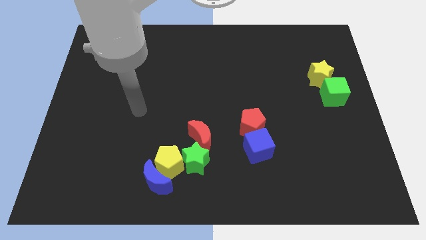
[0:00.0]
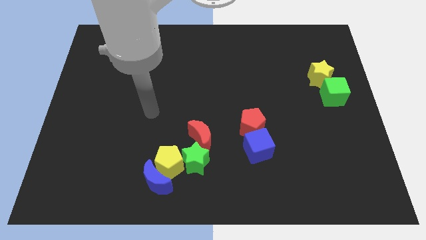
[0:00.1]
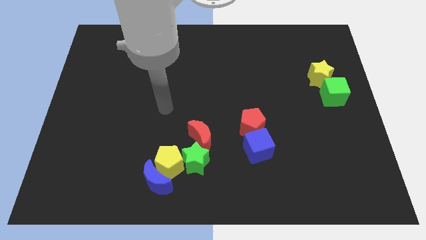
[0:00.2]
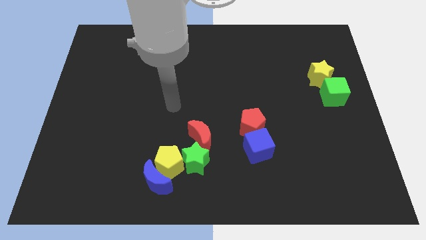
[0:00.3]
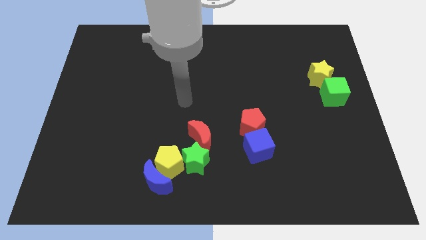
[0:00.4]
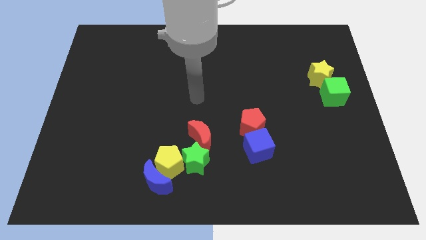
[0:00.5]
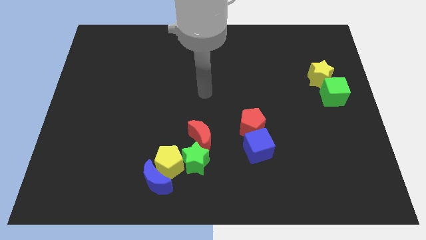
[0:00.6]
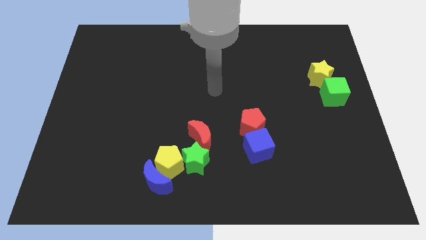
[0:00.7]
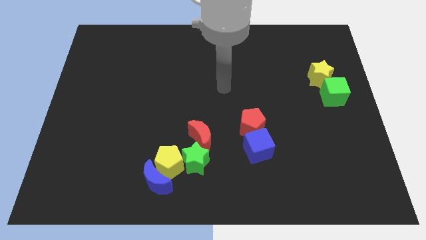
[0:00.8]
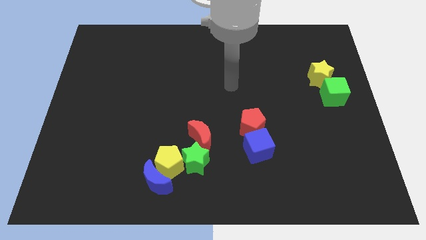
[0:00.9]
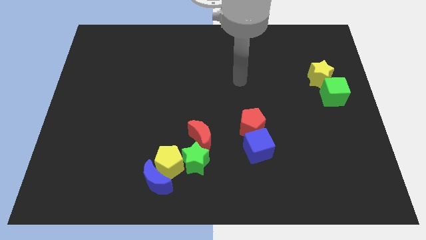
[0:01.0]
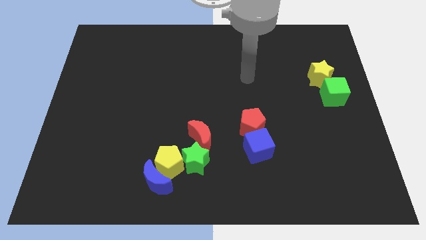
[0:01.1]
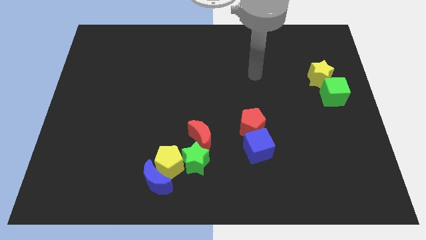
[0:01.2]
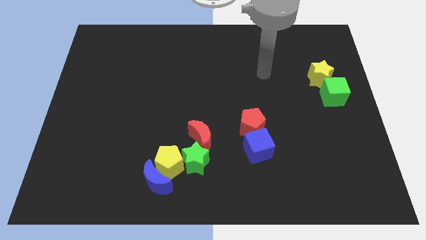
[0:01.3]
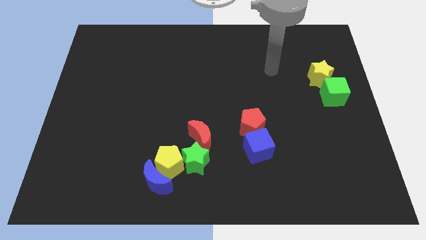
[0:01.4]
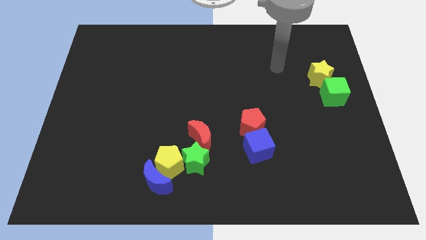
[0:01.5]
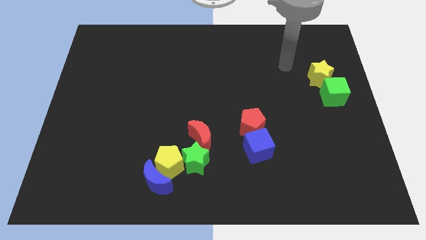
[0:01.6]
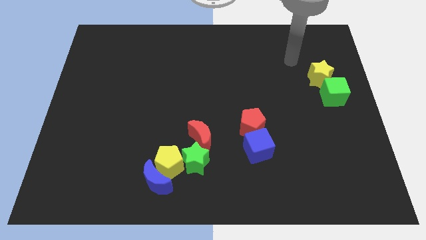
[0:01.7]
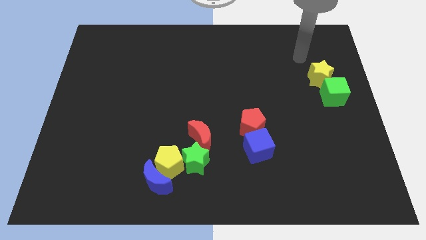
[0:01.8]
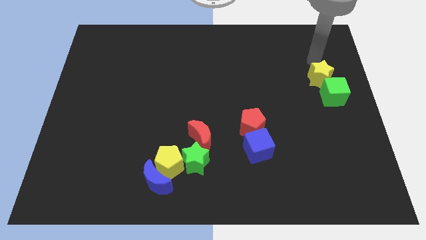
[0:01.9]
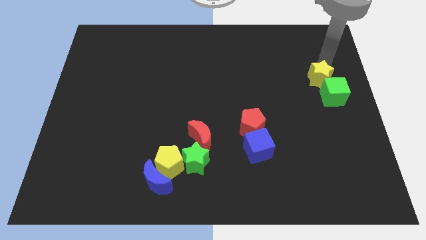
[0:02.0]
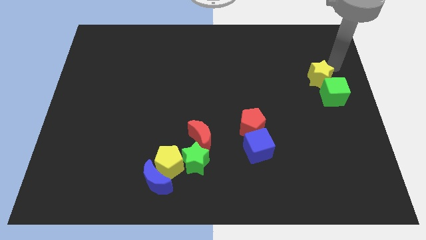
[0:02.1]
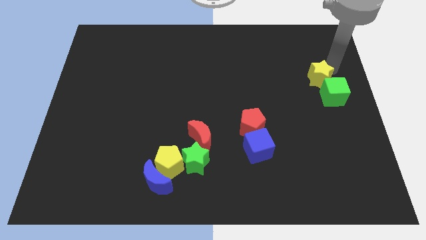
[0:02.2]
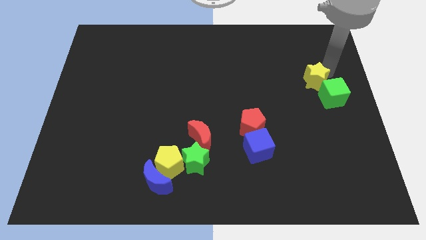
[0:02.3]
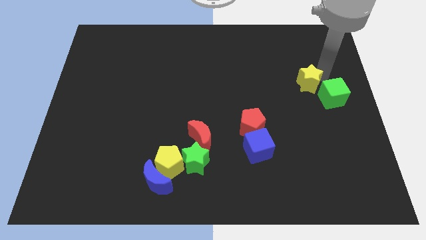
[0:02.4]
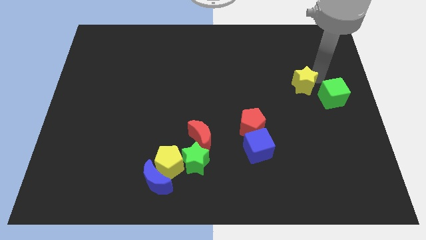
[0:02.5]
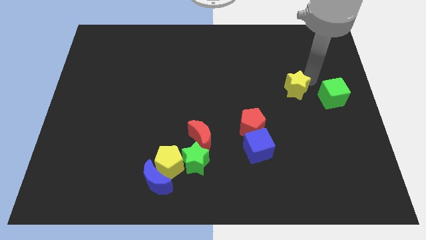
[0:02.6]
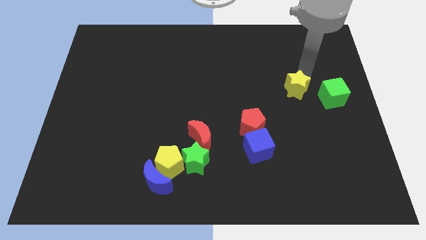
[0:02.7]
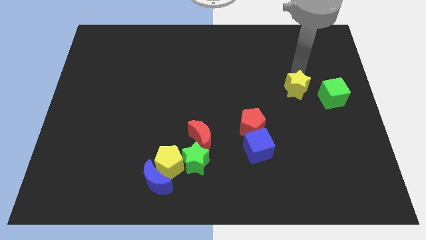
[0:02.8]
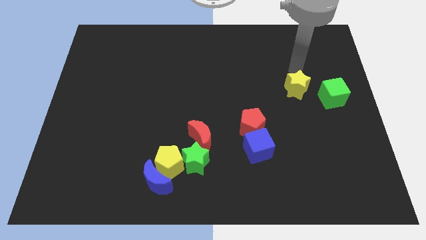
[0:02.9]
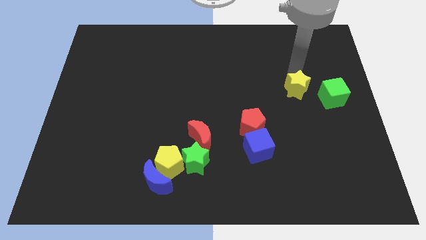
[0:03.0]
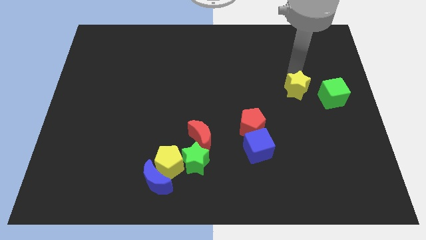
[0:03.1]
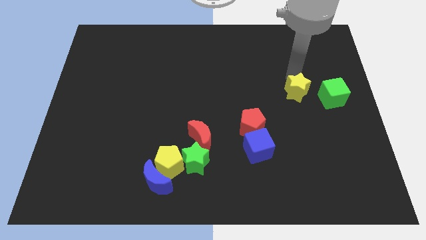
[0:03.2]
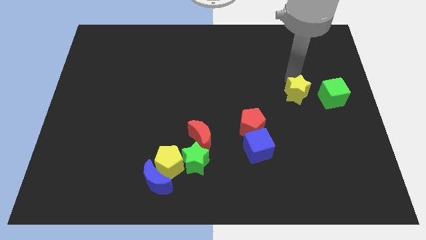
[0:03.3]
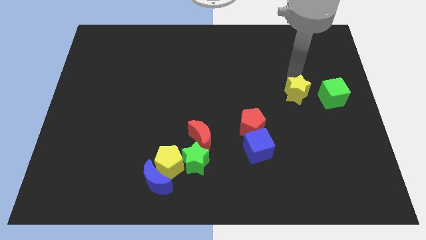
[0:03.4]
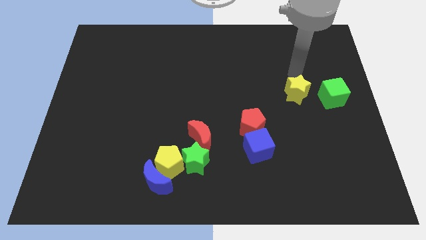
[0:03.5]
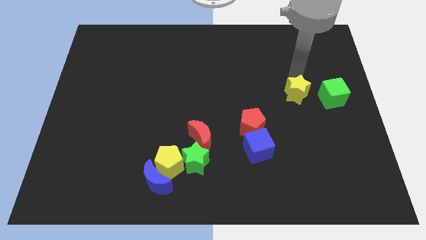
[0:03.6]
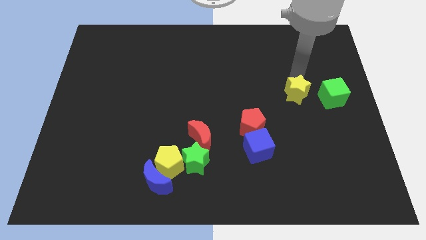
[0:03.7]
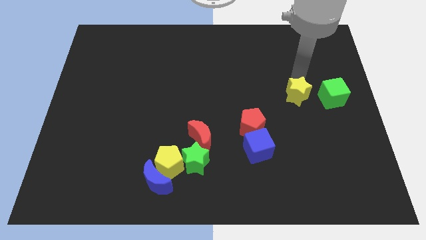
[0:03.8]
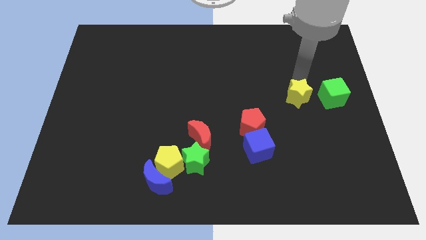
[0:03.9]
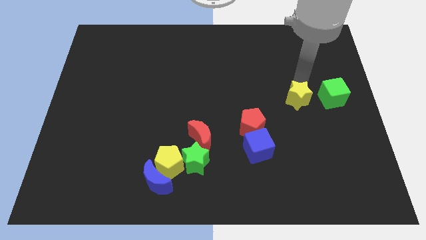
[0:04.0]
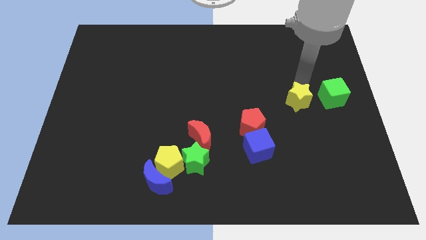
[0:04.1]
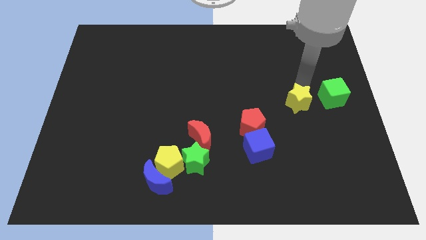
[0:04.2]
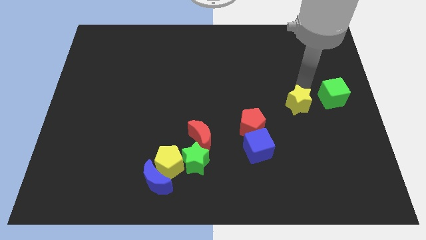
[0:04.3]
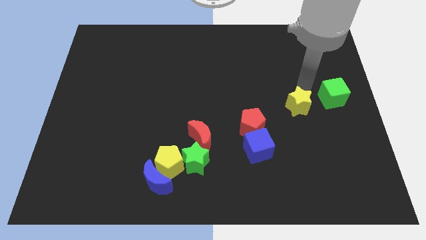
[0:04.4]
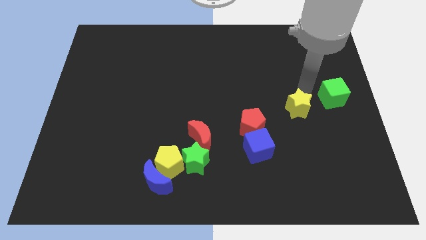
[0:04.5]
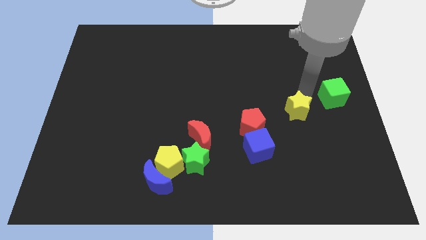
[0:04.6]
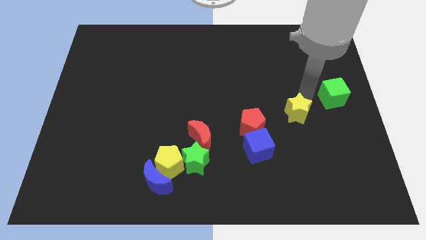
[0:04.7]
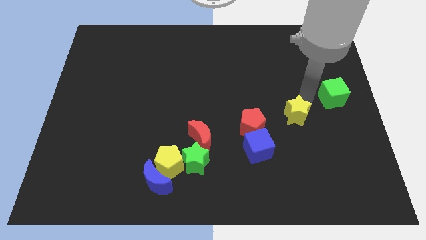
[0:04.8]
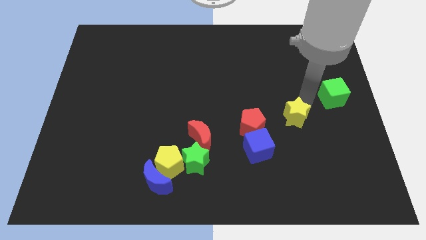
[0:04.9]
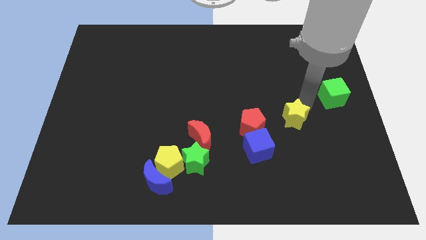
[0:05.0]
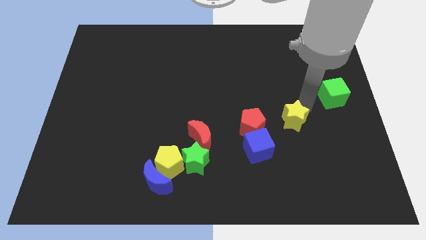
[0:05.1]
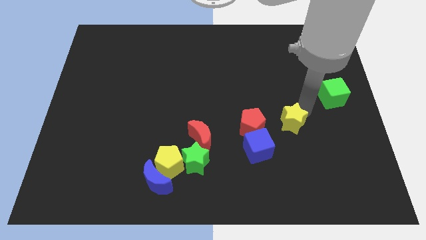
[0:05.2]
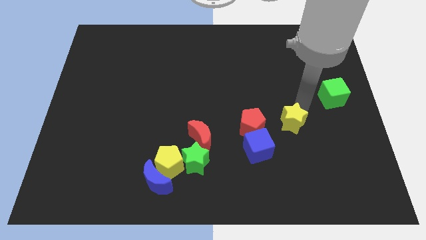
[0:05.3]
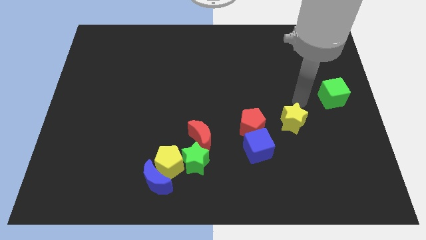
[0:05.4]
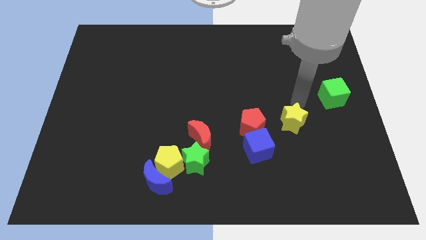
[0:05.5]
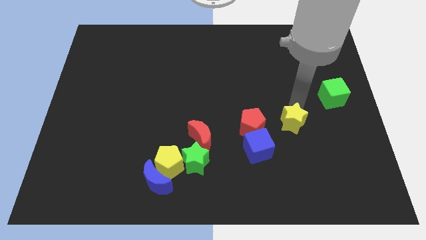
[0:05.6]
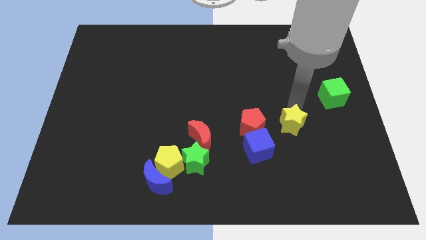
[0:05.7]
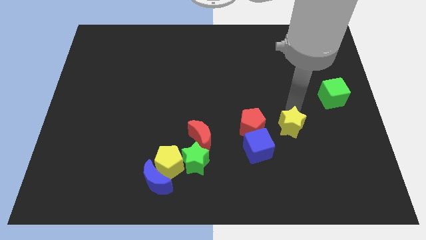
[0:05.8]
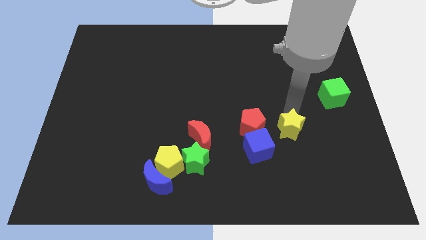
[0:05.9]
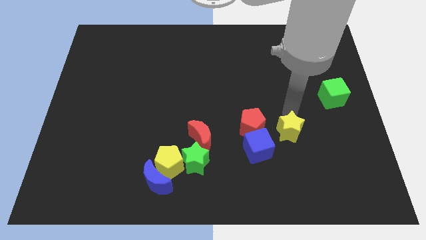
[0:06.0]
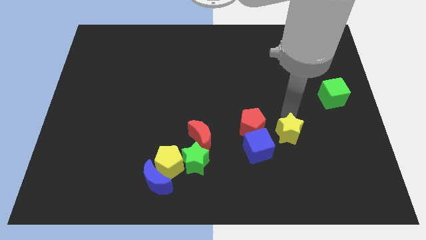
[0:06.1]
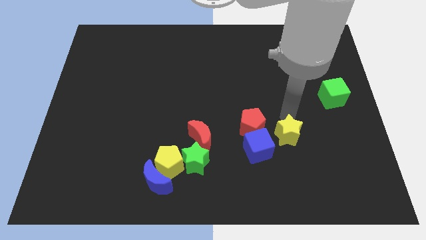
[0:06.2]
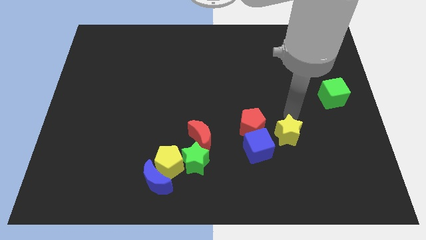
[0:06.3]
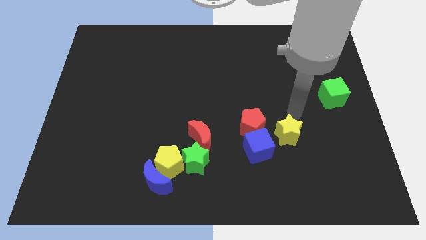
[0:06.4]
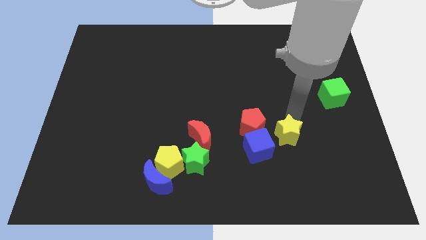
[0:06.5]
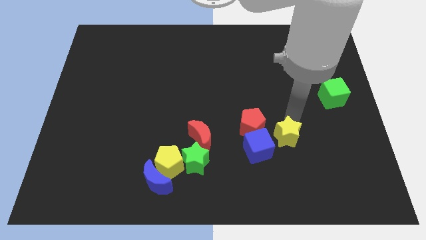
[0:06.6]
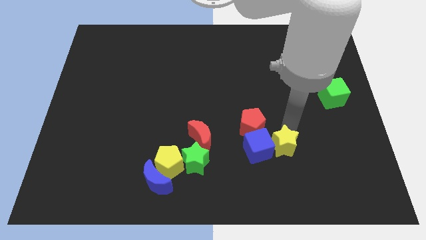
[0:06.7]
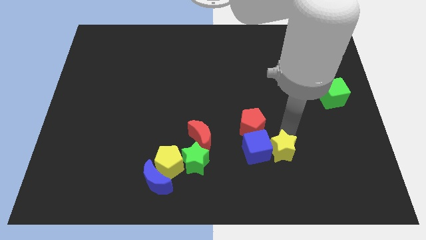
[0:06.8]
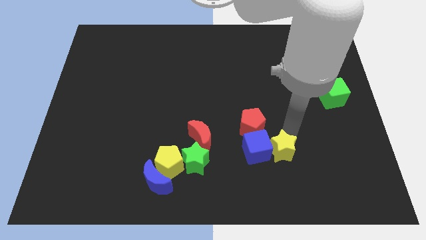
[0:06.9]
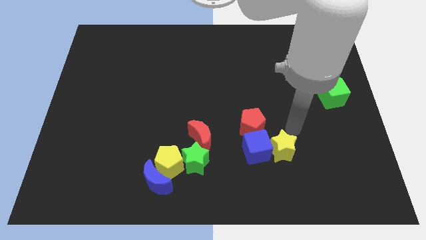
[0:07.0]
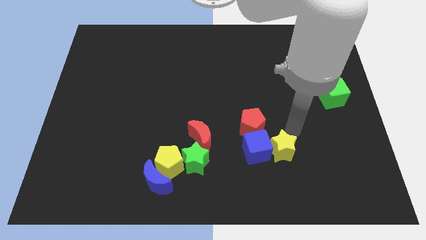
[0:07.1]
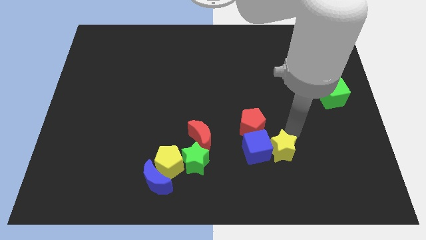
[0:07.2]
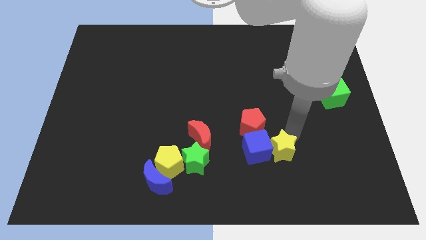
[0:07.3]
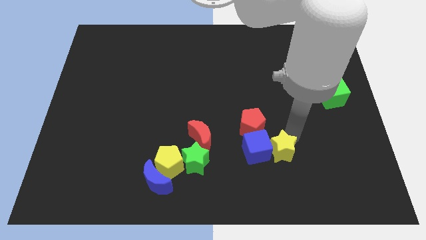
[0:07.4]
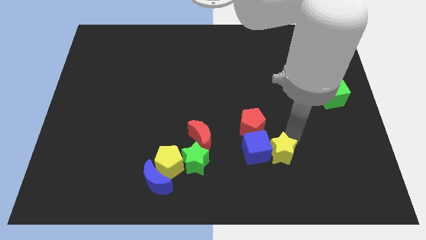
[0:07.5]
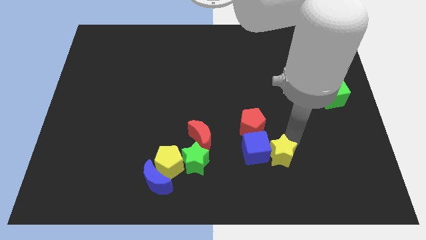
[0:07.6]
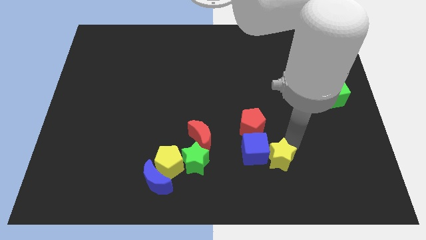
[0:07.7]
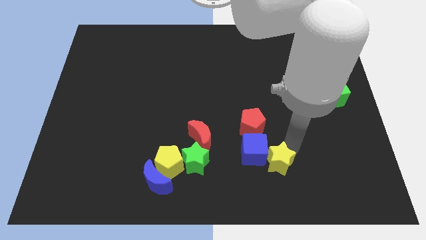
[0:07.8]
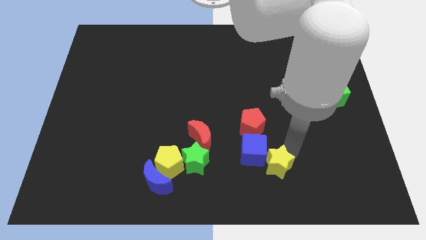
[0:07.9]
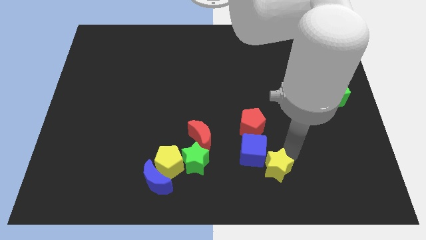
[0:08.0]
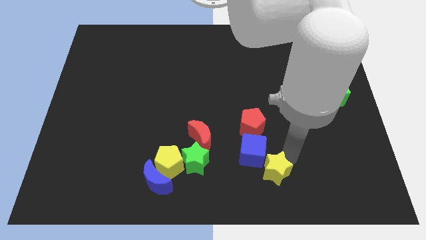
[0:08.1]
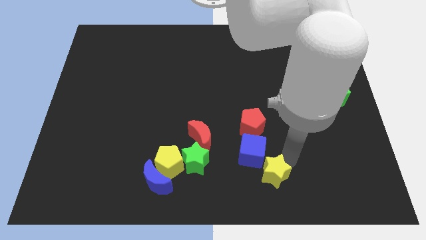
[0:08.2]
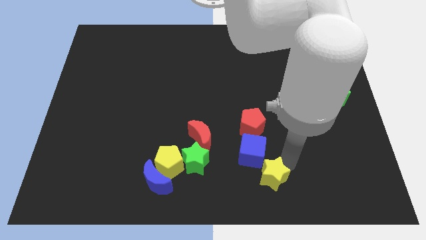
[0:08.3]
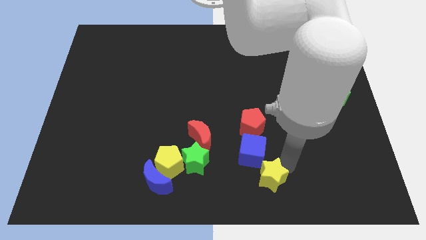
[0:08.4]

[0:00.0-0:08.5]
move the yellow star to the bottom side
